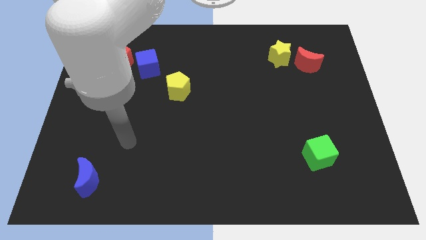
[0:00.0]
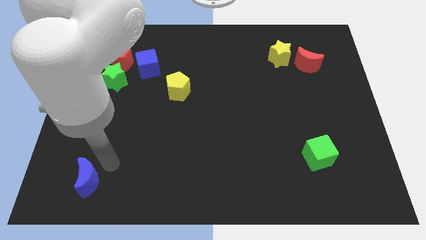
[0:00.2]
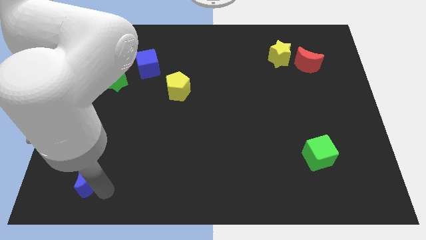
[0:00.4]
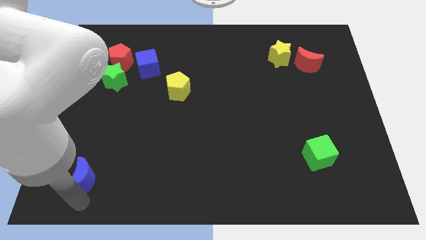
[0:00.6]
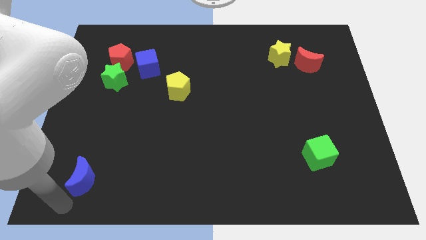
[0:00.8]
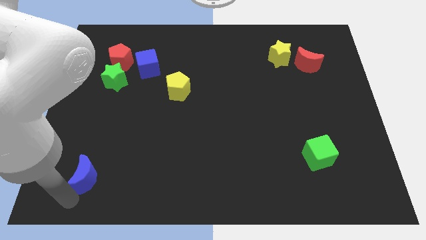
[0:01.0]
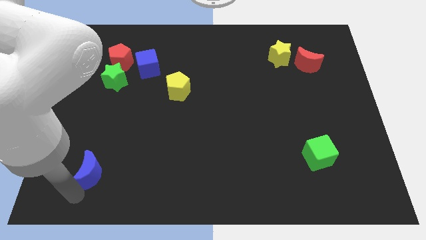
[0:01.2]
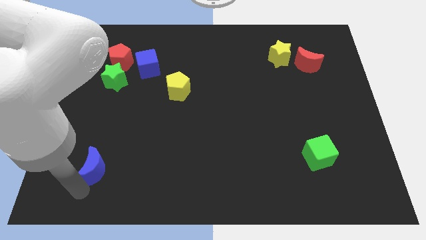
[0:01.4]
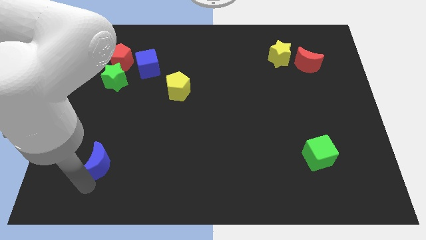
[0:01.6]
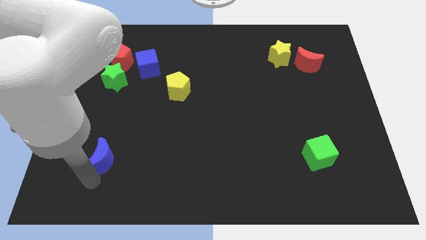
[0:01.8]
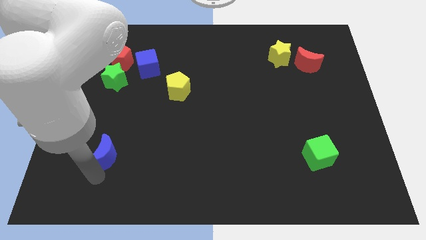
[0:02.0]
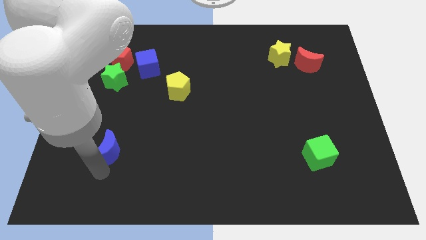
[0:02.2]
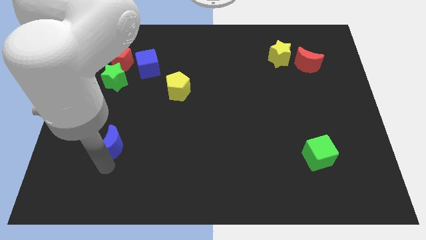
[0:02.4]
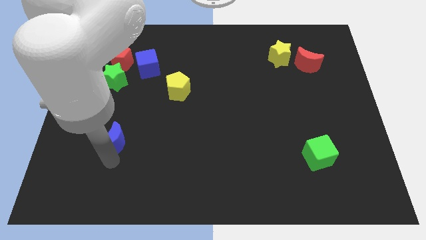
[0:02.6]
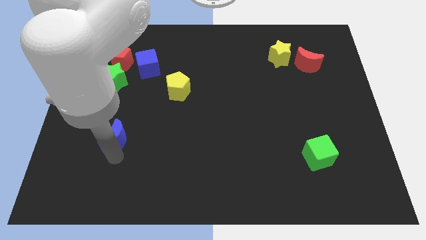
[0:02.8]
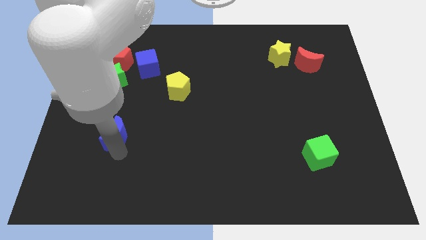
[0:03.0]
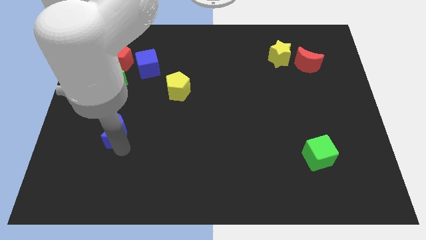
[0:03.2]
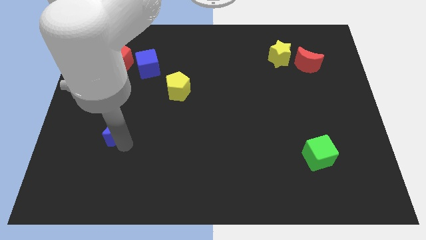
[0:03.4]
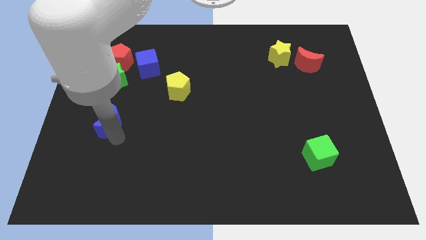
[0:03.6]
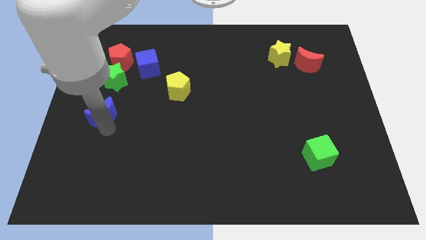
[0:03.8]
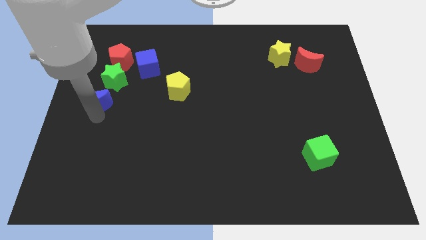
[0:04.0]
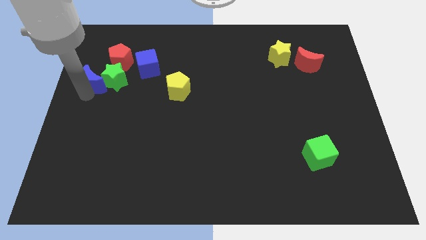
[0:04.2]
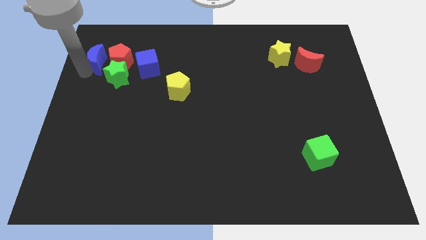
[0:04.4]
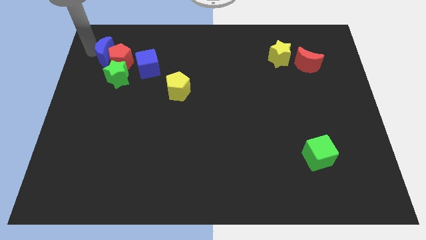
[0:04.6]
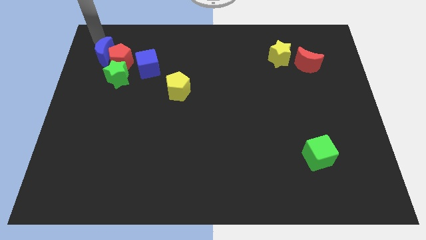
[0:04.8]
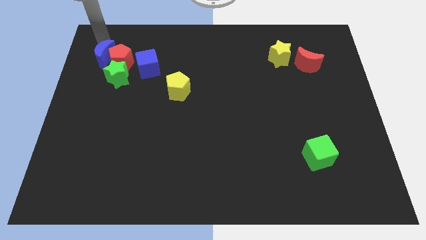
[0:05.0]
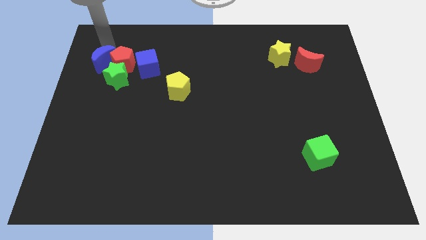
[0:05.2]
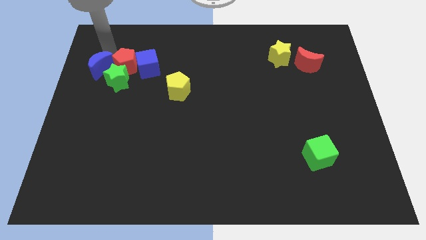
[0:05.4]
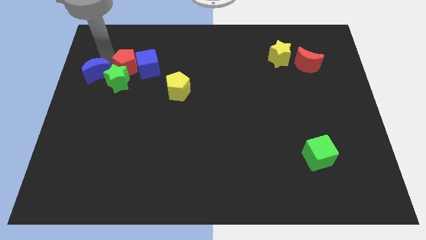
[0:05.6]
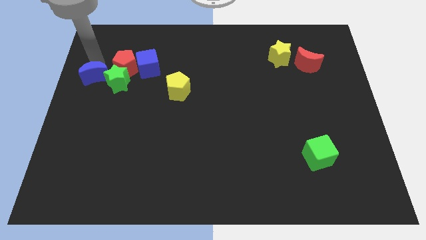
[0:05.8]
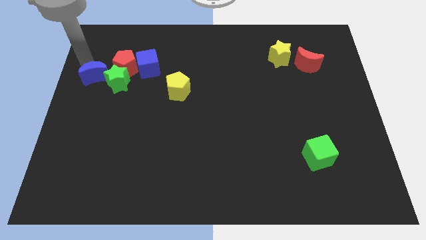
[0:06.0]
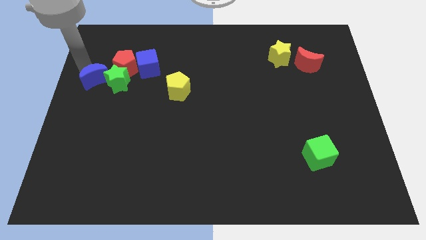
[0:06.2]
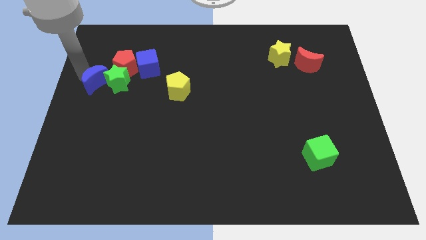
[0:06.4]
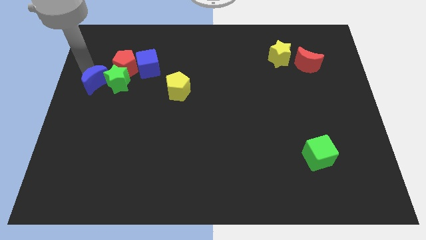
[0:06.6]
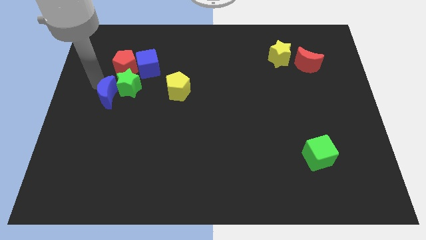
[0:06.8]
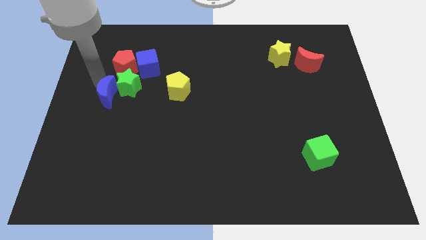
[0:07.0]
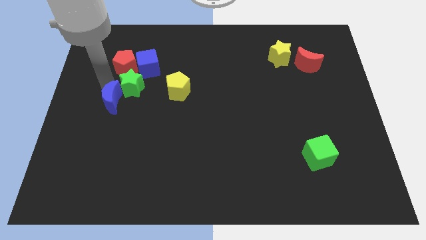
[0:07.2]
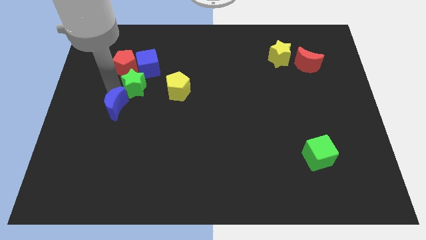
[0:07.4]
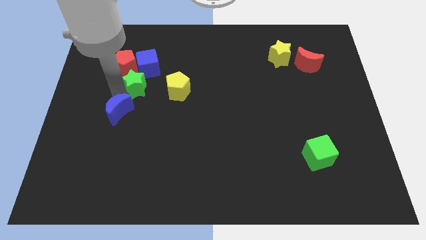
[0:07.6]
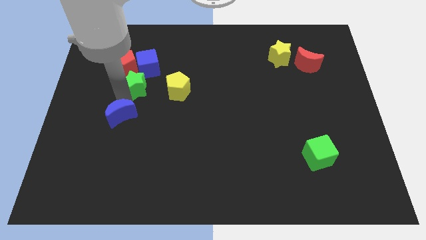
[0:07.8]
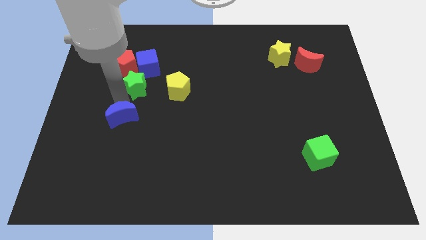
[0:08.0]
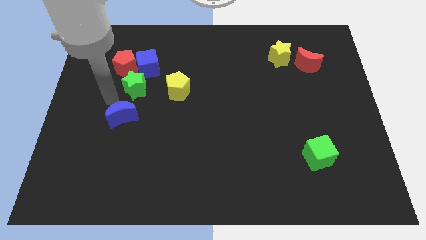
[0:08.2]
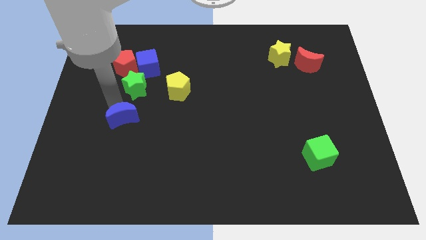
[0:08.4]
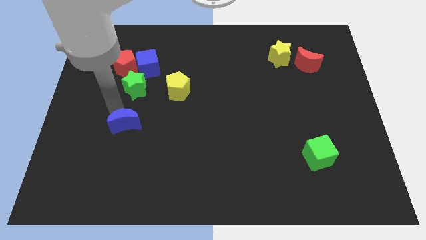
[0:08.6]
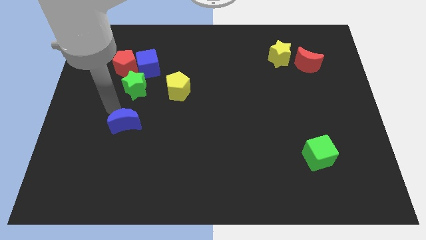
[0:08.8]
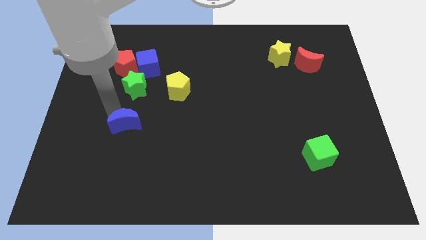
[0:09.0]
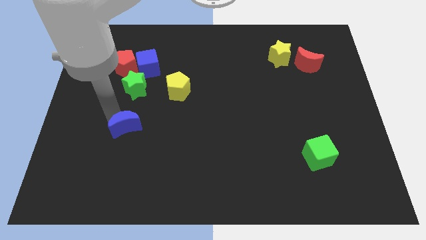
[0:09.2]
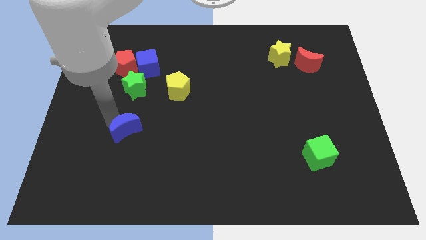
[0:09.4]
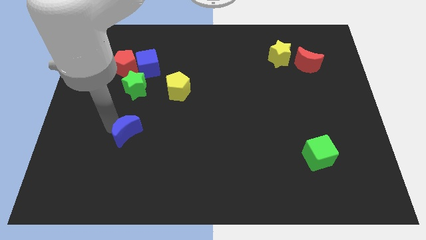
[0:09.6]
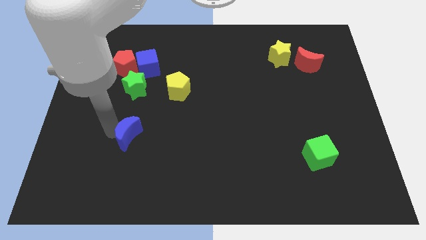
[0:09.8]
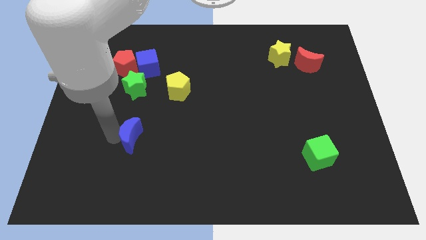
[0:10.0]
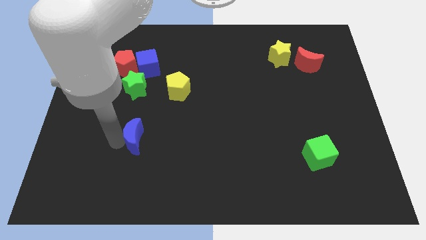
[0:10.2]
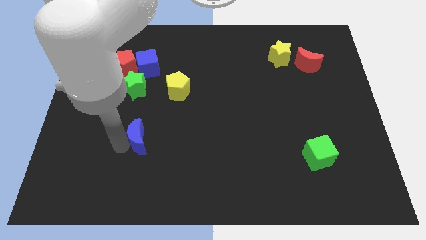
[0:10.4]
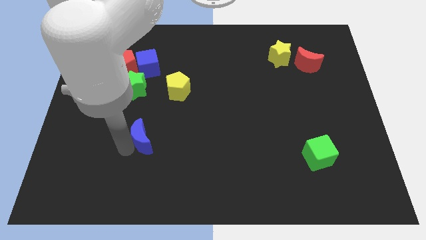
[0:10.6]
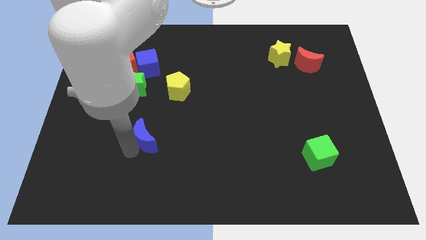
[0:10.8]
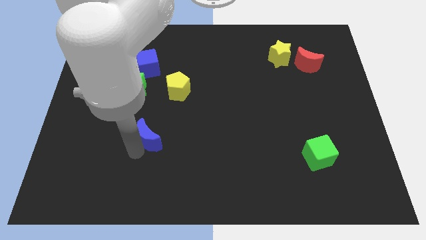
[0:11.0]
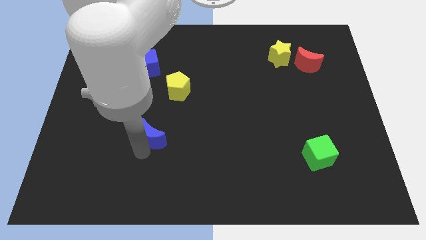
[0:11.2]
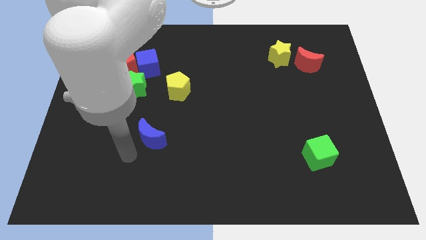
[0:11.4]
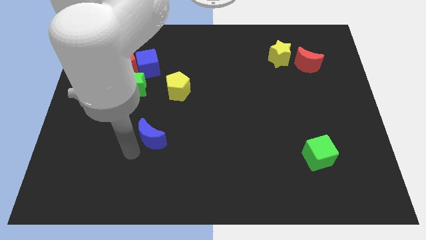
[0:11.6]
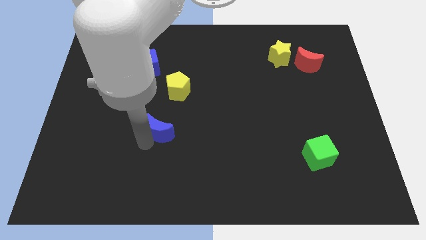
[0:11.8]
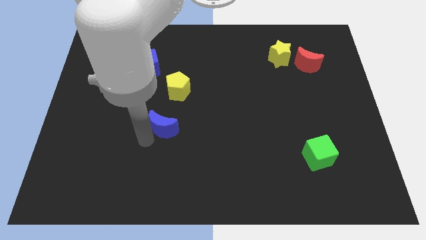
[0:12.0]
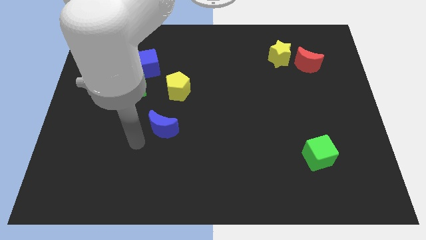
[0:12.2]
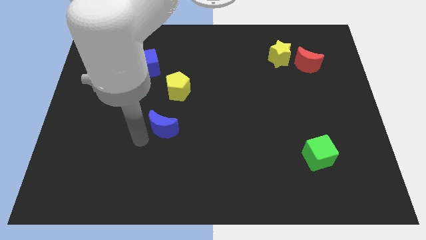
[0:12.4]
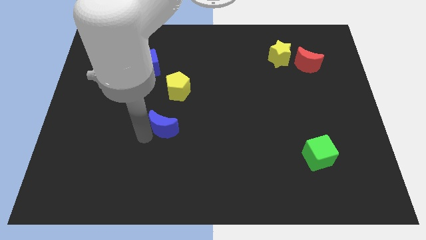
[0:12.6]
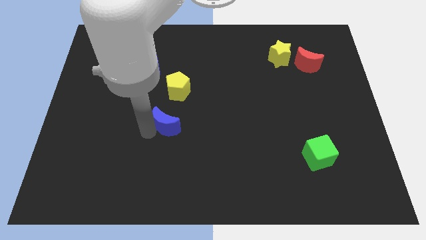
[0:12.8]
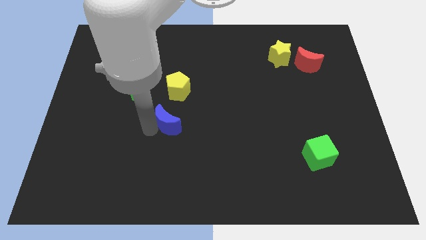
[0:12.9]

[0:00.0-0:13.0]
push the blue moon upwards and to the right diagonally

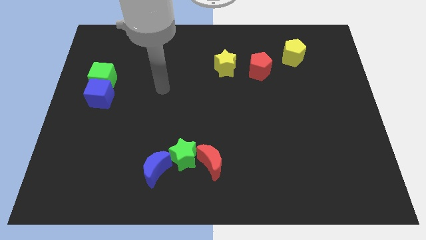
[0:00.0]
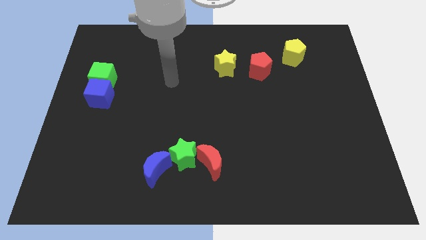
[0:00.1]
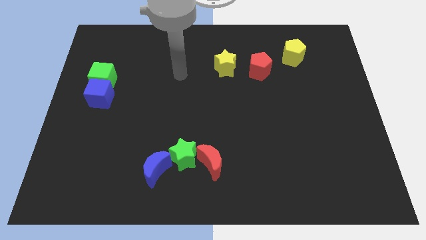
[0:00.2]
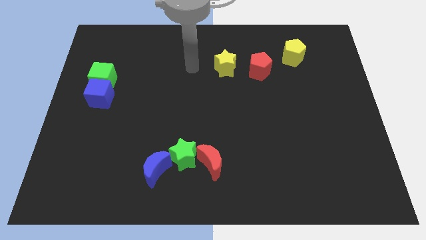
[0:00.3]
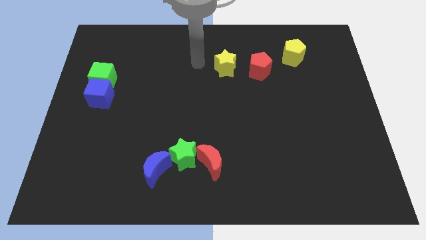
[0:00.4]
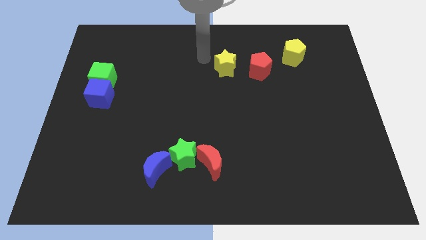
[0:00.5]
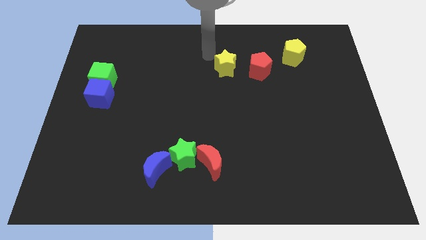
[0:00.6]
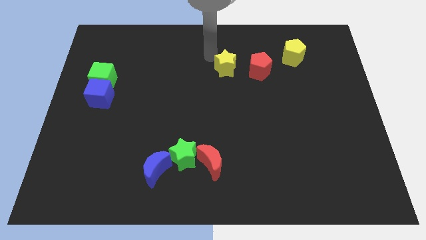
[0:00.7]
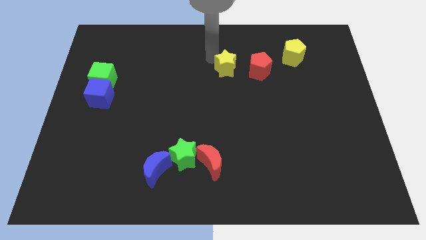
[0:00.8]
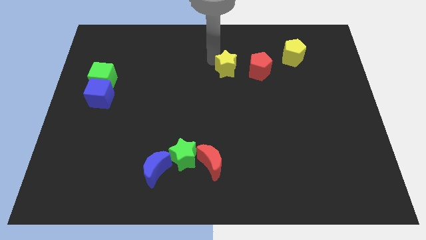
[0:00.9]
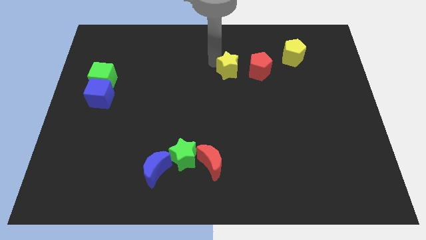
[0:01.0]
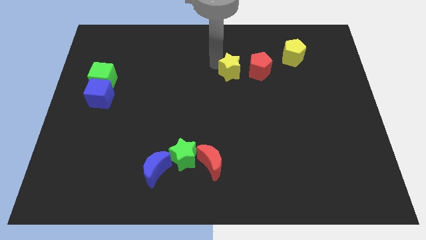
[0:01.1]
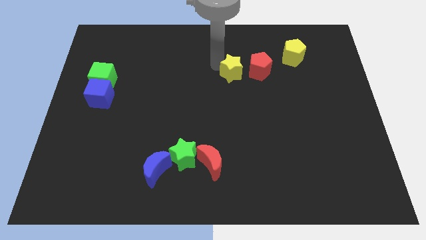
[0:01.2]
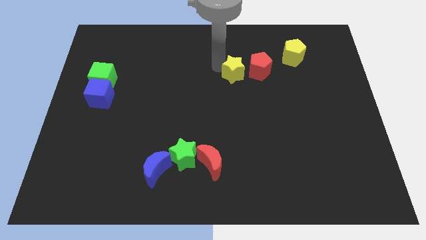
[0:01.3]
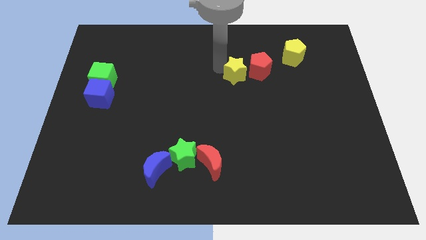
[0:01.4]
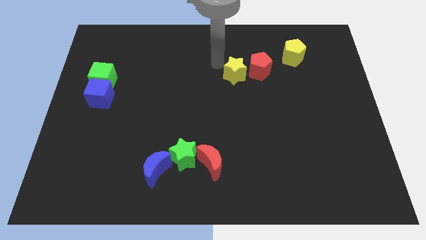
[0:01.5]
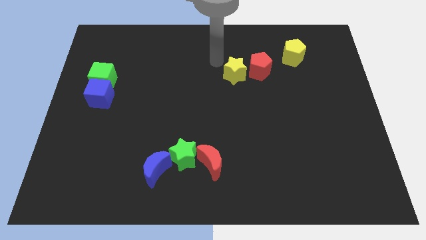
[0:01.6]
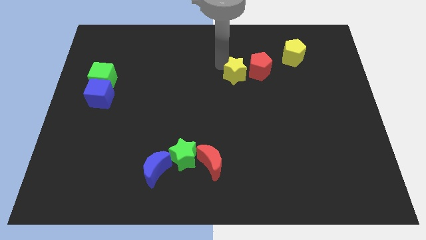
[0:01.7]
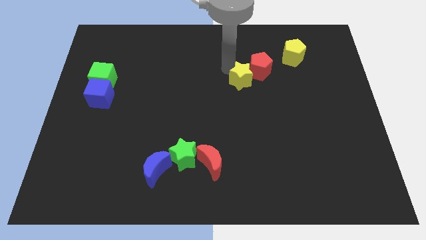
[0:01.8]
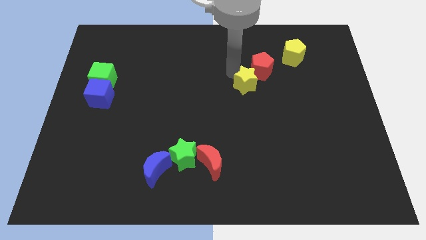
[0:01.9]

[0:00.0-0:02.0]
slightly move the yellow star diagonally downwards and right
